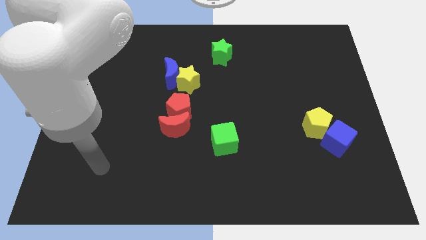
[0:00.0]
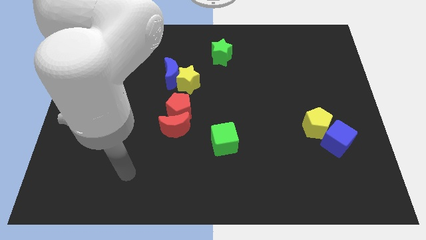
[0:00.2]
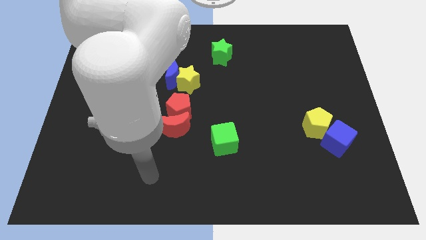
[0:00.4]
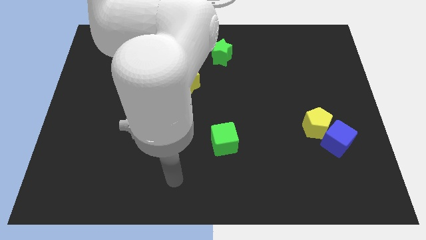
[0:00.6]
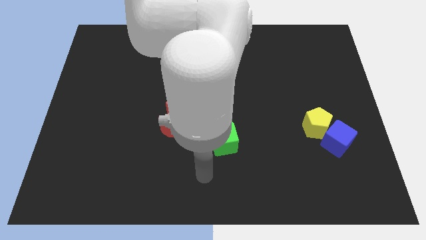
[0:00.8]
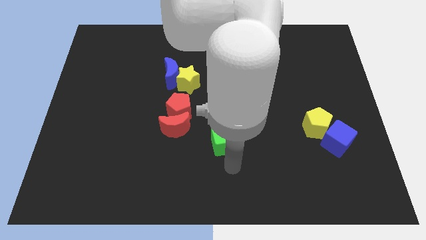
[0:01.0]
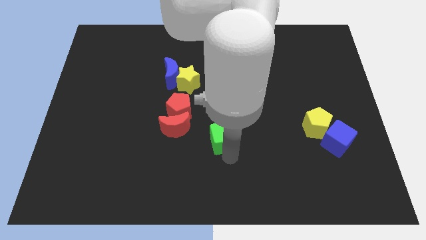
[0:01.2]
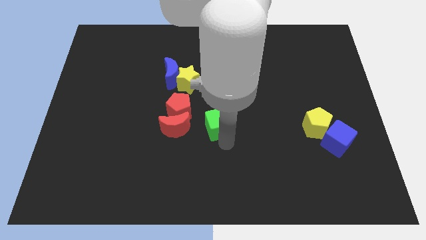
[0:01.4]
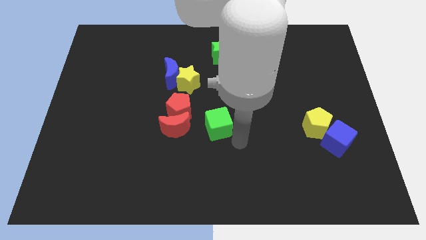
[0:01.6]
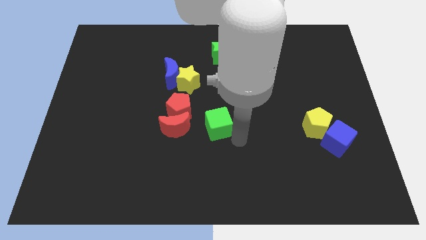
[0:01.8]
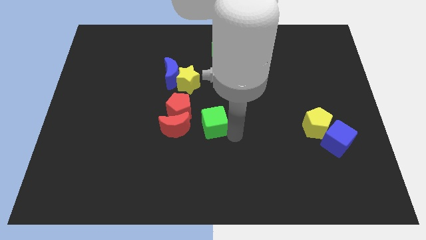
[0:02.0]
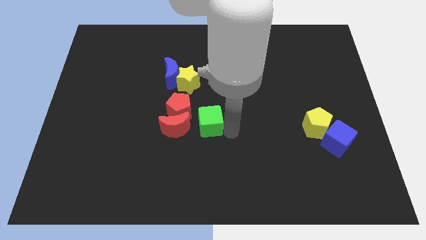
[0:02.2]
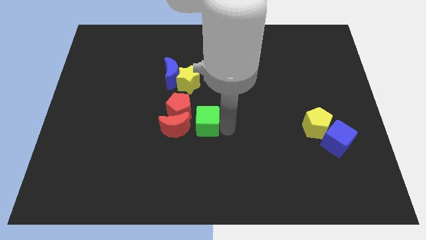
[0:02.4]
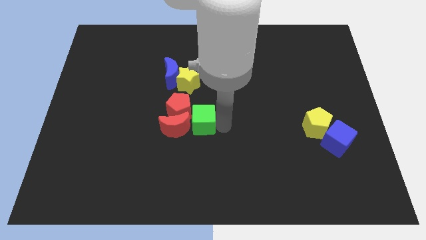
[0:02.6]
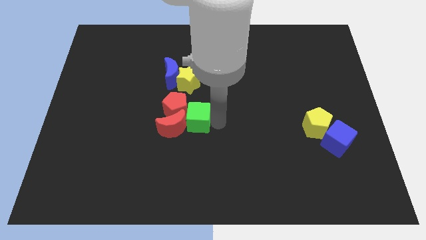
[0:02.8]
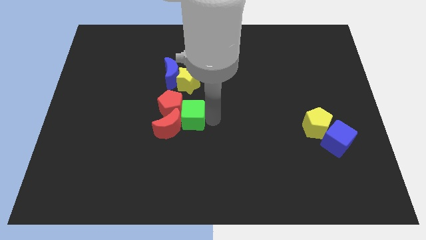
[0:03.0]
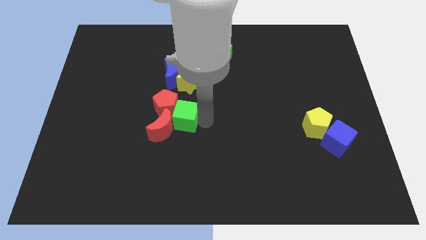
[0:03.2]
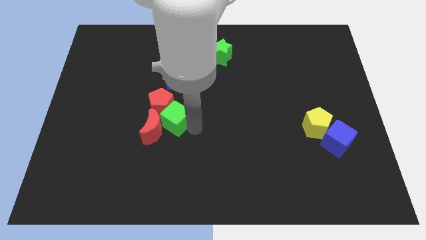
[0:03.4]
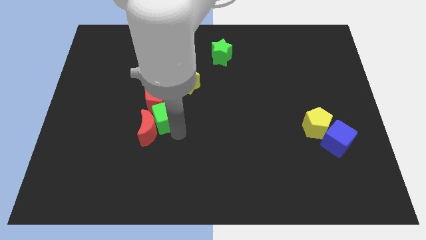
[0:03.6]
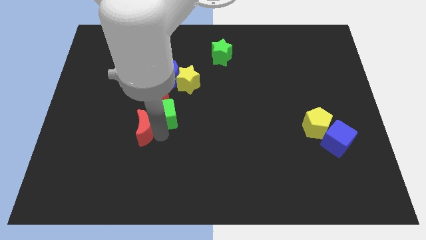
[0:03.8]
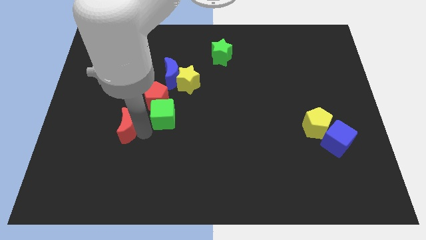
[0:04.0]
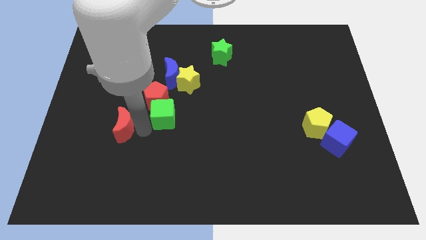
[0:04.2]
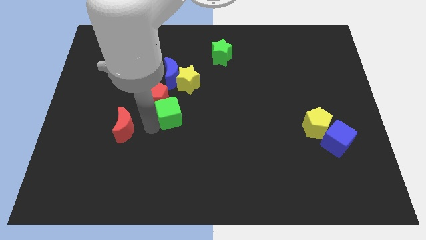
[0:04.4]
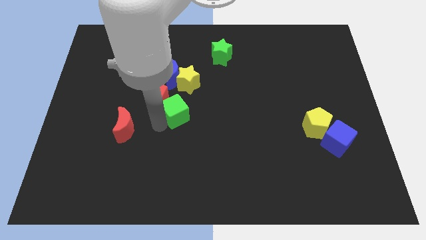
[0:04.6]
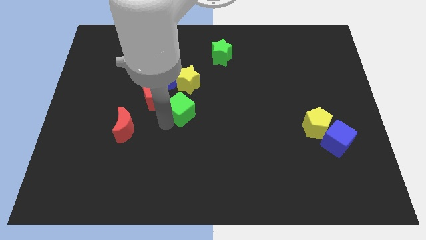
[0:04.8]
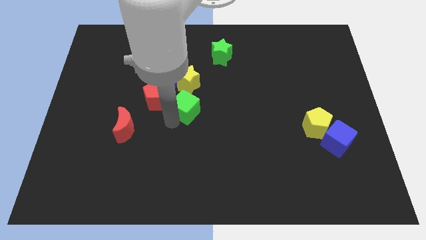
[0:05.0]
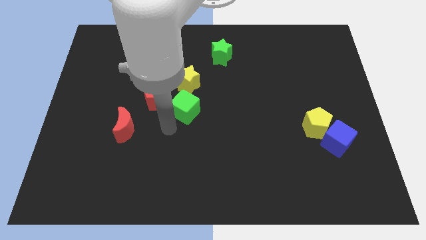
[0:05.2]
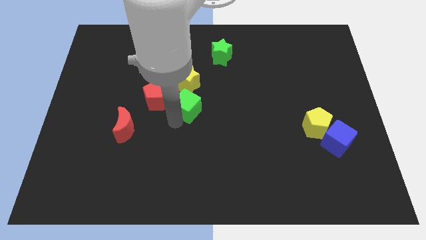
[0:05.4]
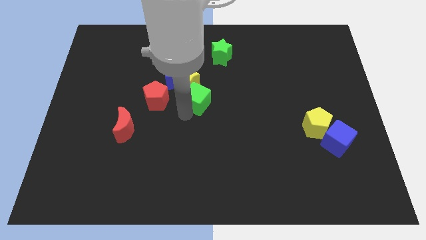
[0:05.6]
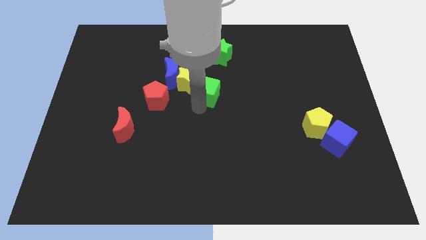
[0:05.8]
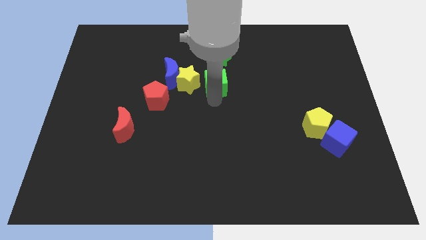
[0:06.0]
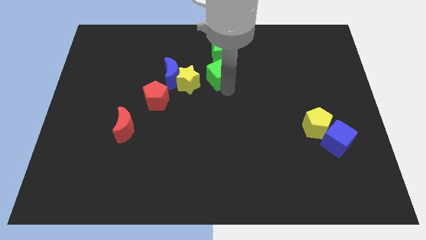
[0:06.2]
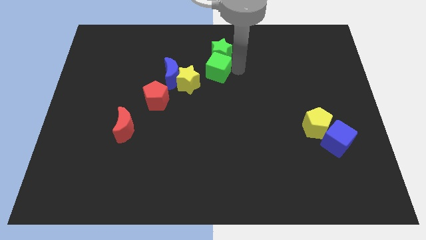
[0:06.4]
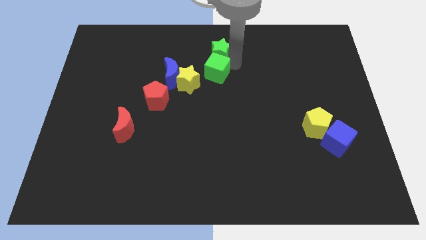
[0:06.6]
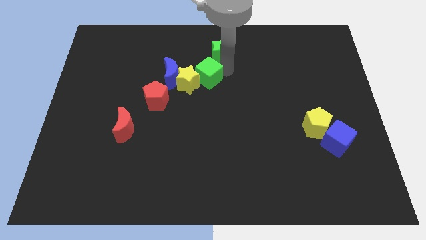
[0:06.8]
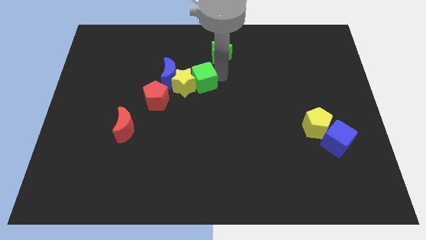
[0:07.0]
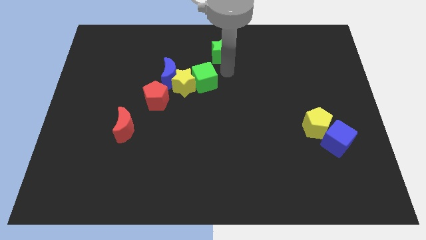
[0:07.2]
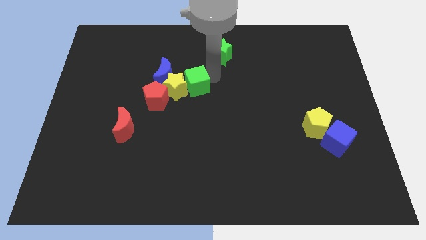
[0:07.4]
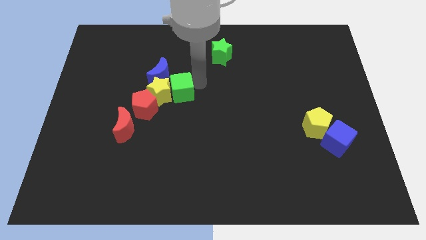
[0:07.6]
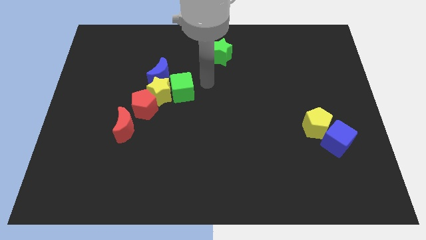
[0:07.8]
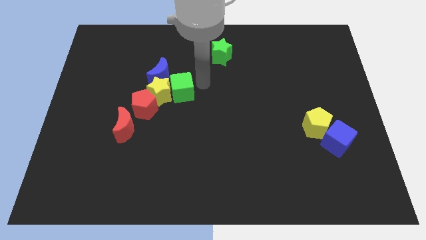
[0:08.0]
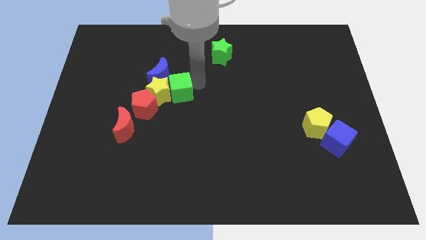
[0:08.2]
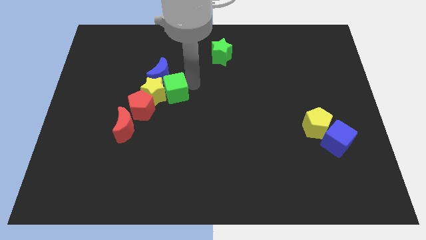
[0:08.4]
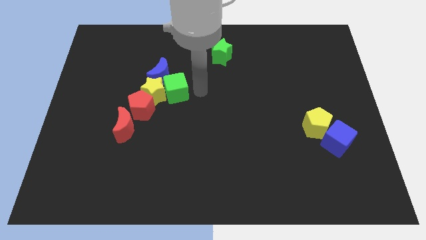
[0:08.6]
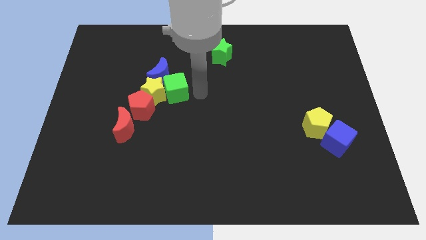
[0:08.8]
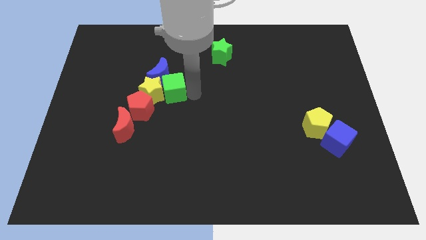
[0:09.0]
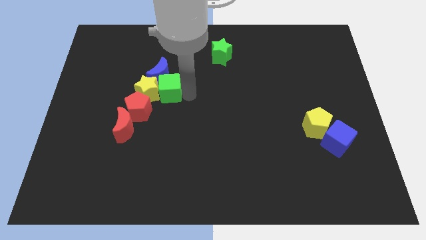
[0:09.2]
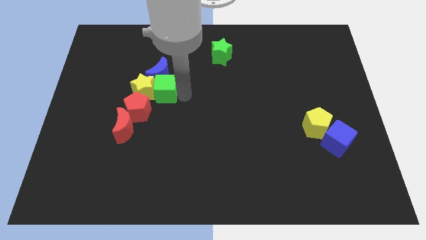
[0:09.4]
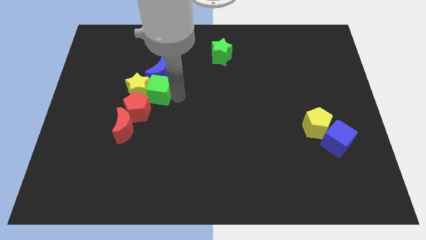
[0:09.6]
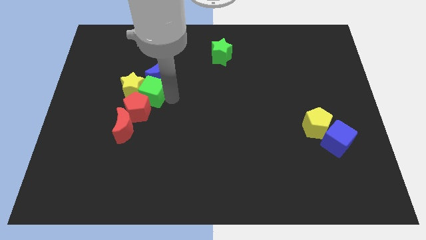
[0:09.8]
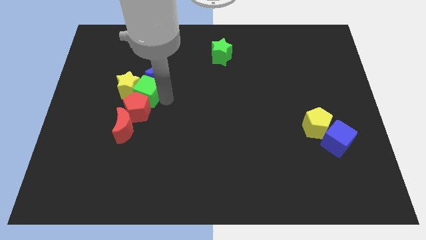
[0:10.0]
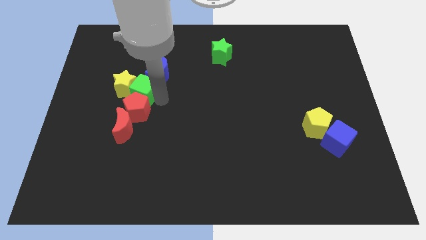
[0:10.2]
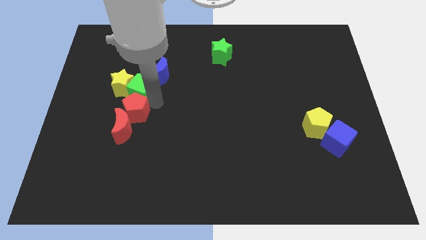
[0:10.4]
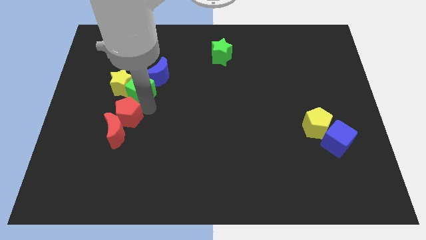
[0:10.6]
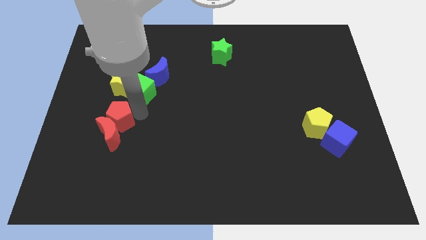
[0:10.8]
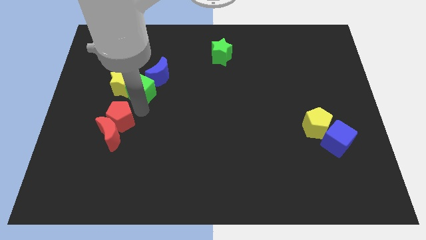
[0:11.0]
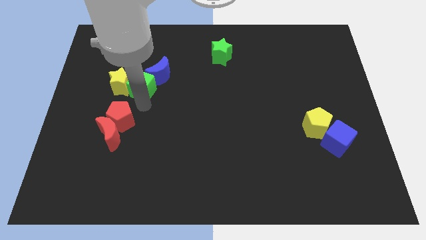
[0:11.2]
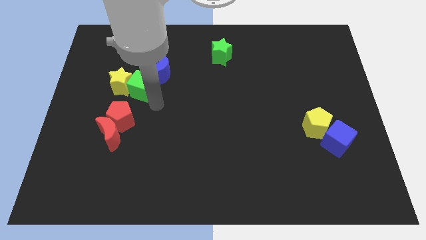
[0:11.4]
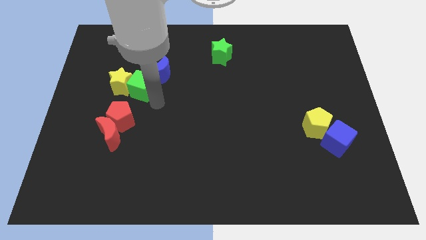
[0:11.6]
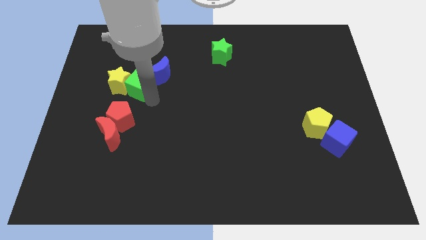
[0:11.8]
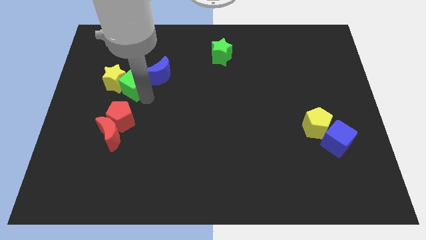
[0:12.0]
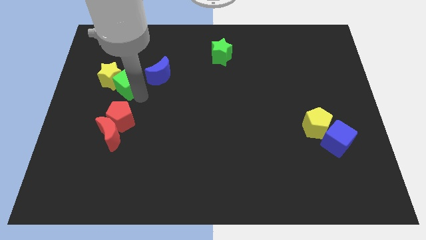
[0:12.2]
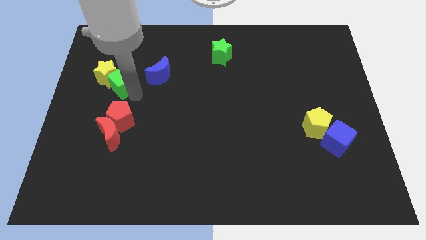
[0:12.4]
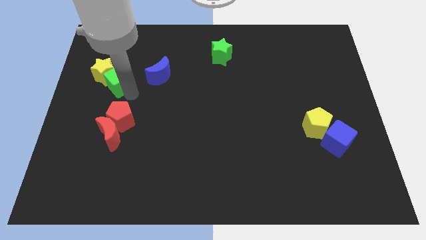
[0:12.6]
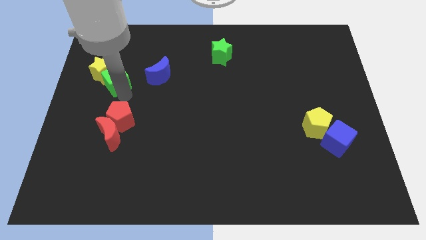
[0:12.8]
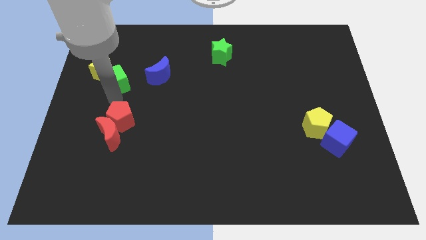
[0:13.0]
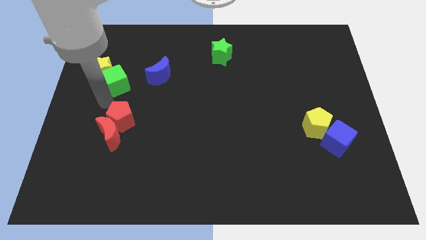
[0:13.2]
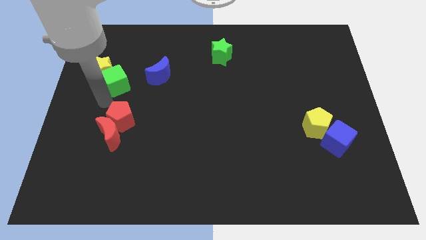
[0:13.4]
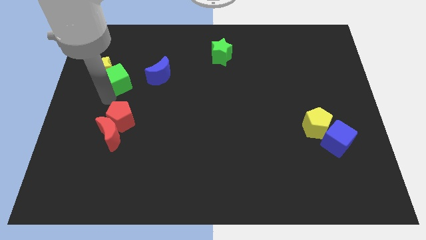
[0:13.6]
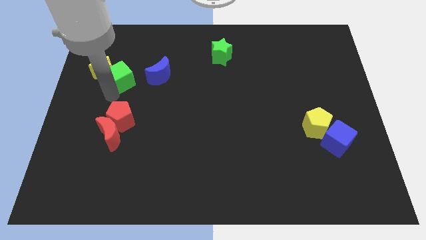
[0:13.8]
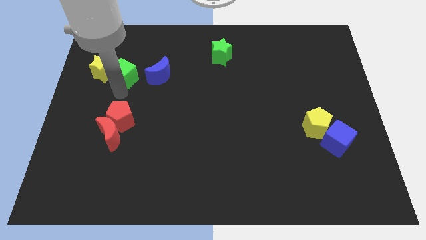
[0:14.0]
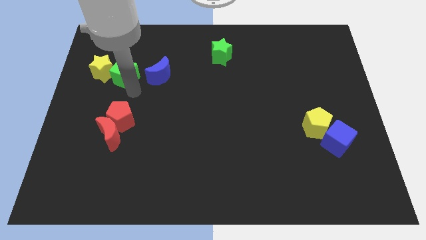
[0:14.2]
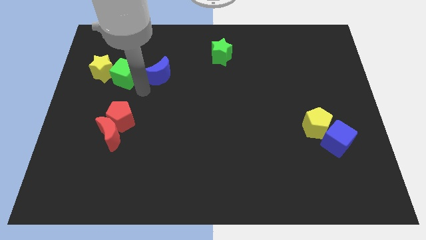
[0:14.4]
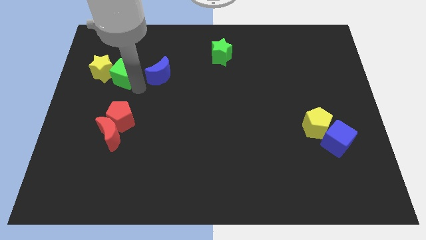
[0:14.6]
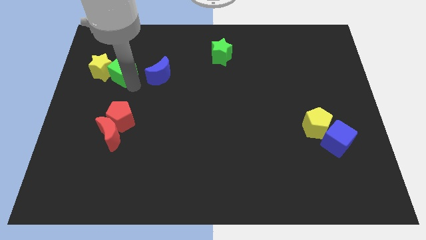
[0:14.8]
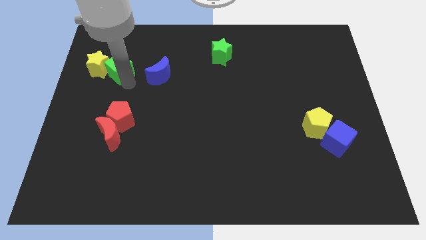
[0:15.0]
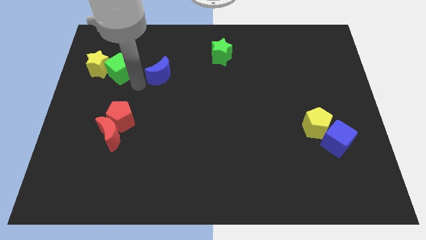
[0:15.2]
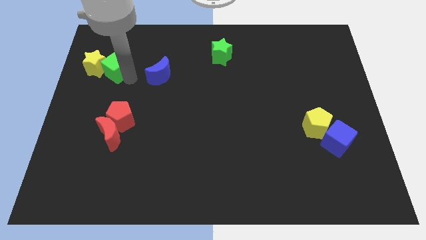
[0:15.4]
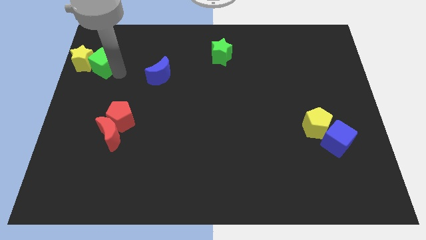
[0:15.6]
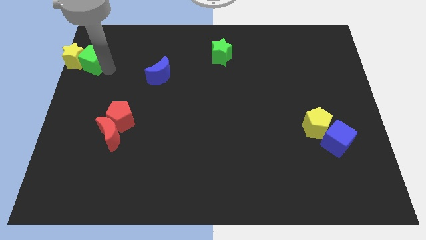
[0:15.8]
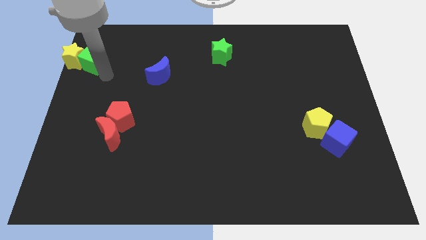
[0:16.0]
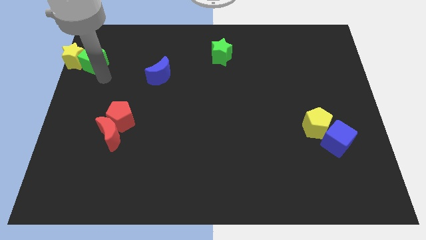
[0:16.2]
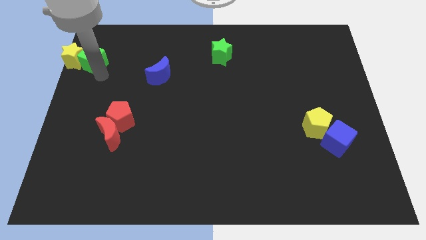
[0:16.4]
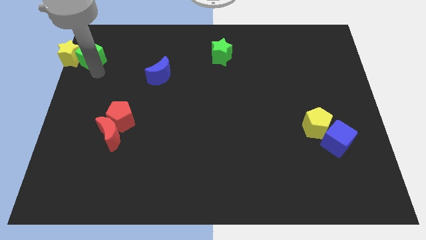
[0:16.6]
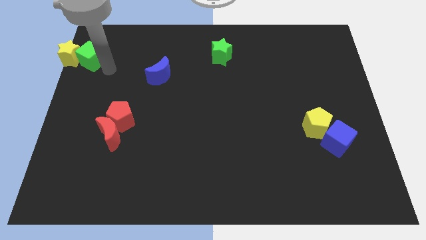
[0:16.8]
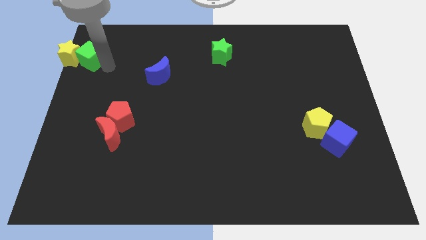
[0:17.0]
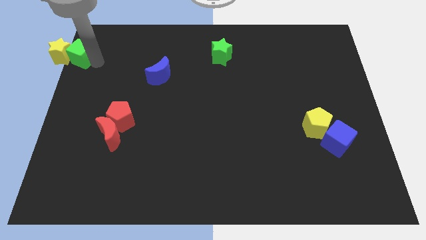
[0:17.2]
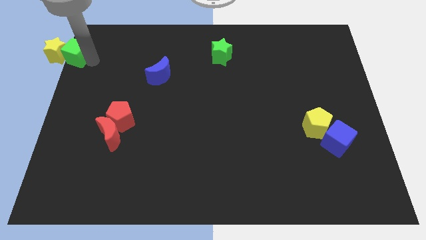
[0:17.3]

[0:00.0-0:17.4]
slide the green cube to the top left corner
